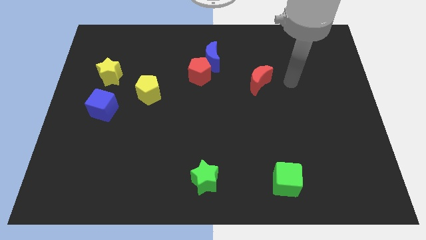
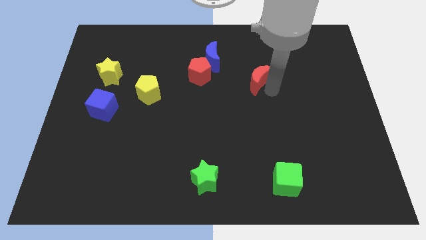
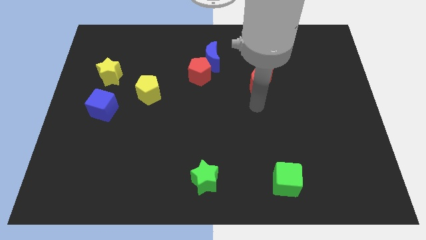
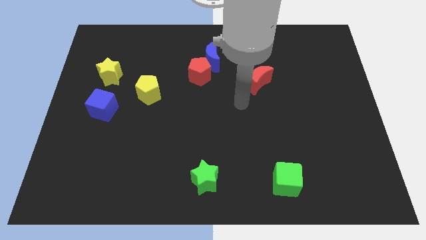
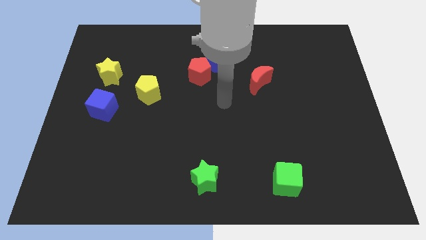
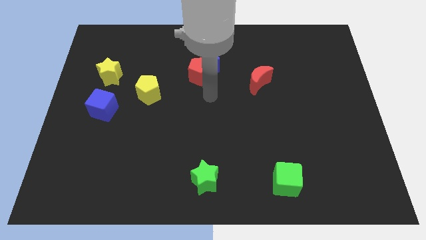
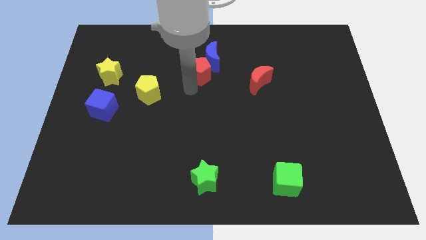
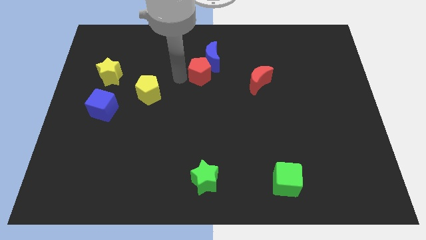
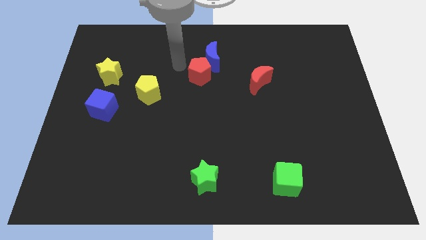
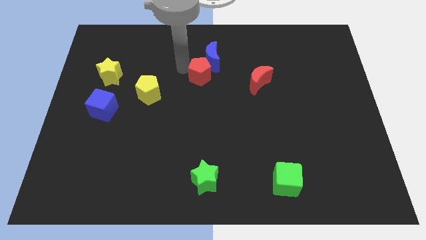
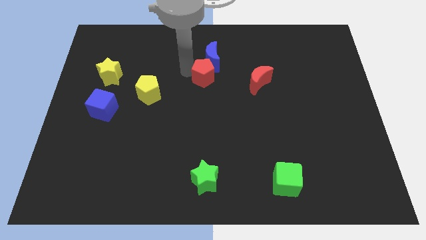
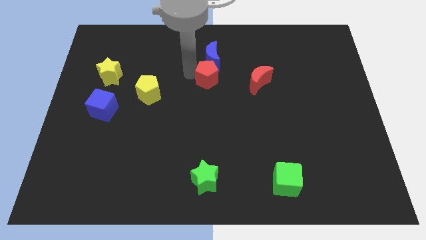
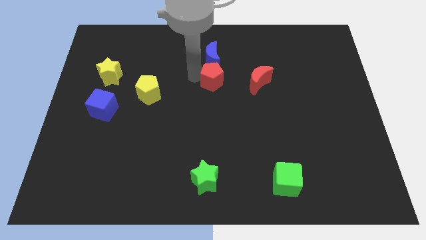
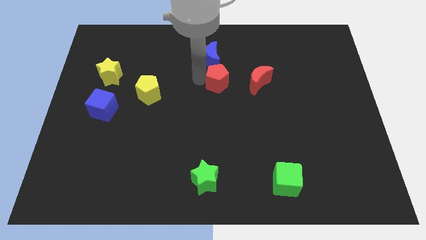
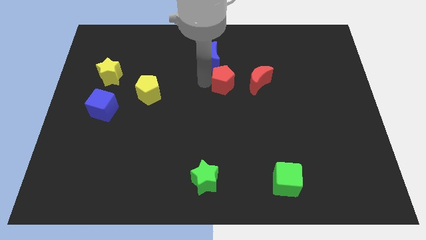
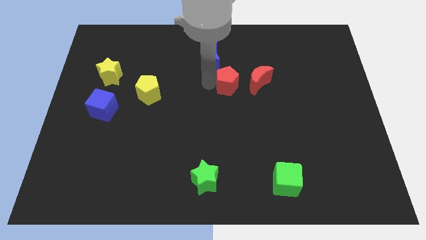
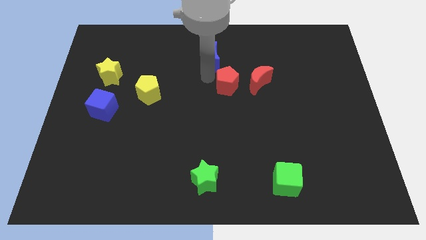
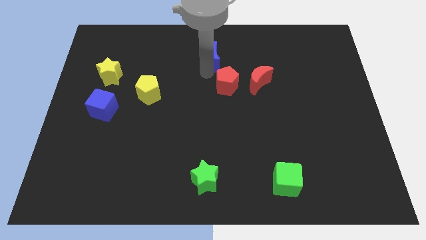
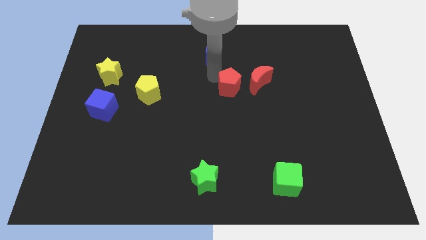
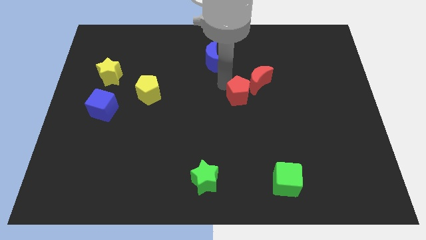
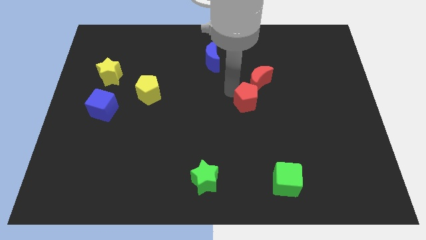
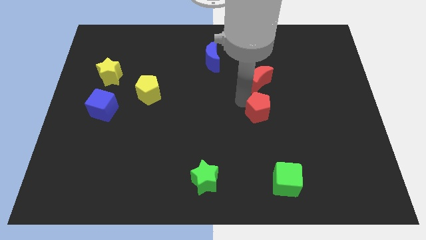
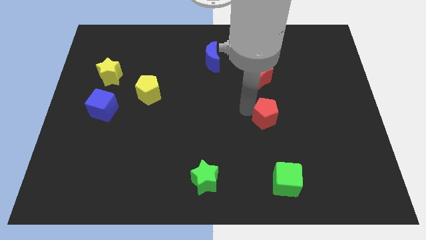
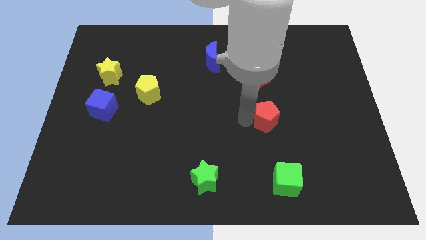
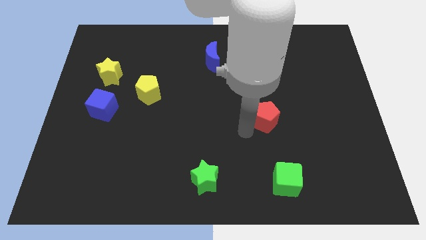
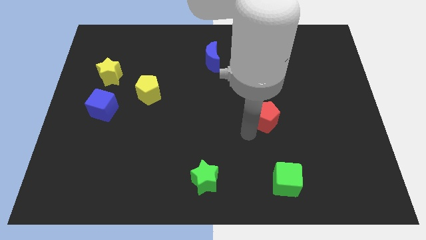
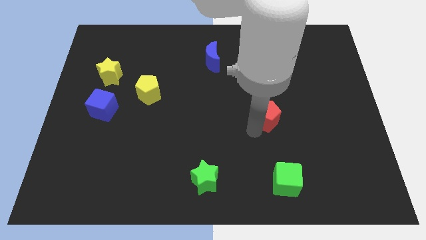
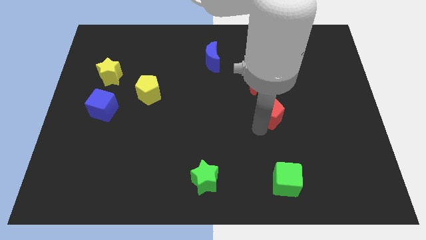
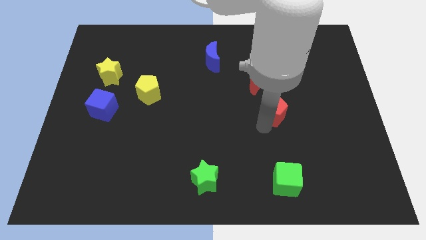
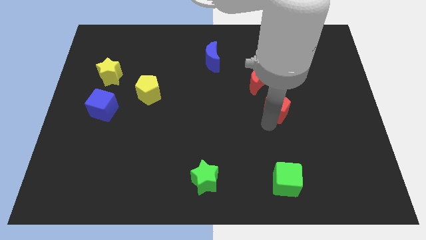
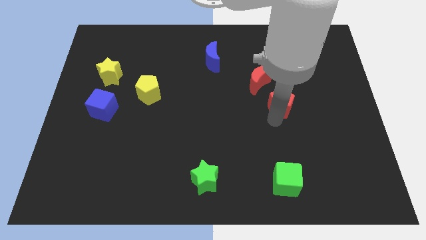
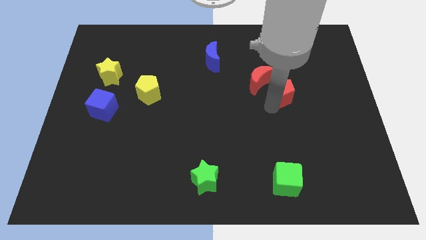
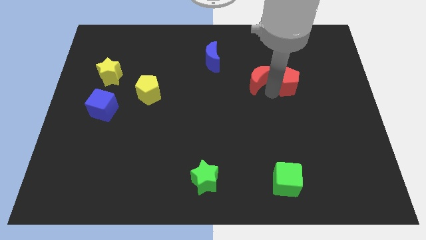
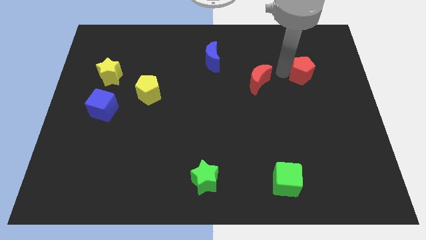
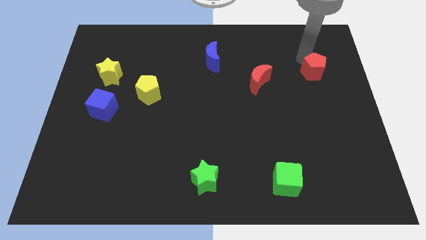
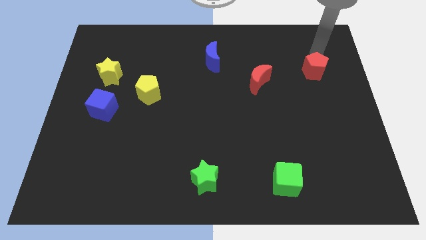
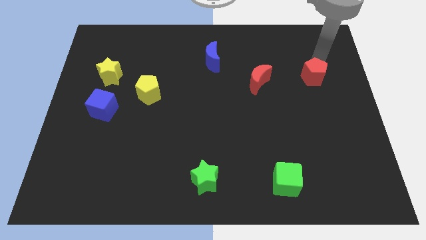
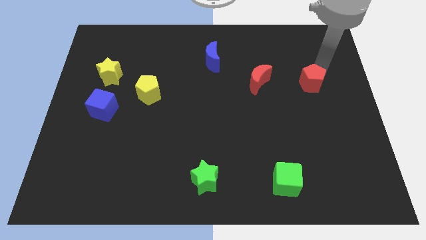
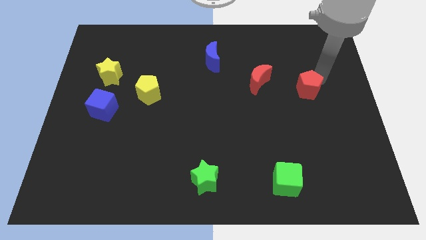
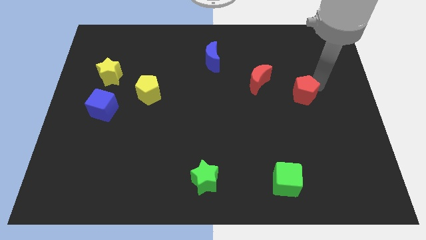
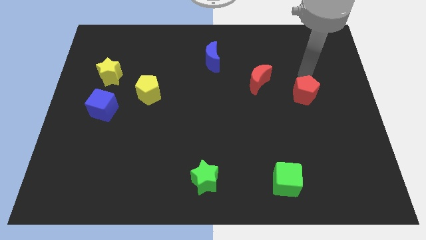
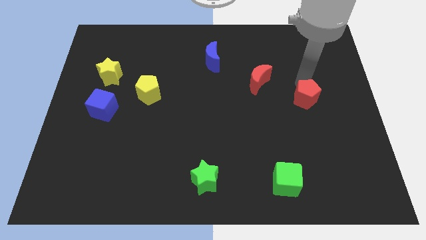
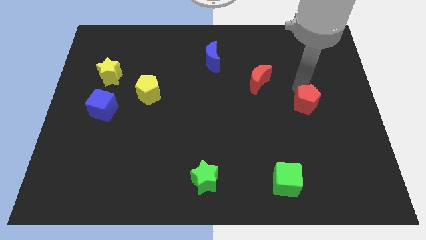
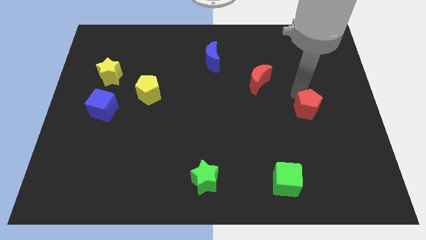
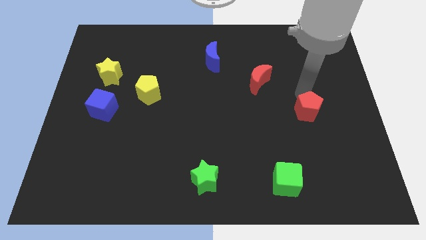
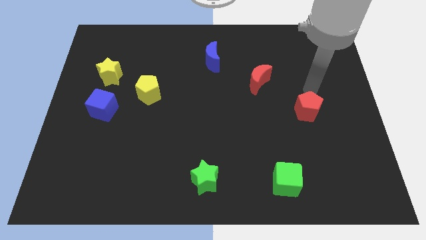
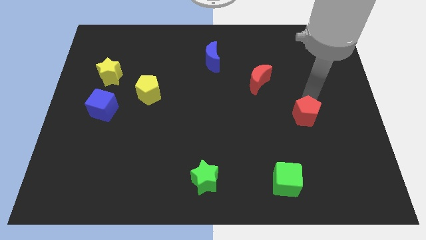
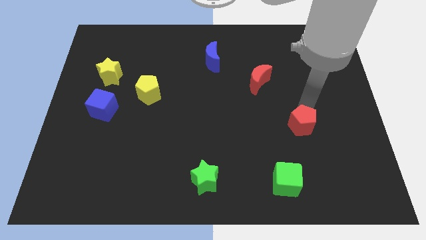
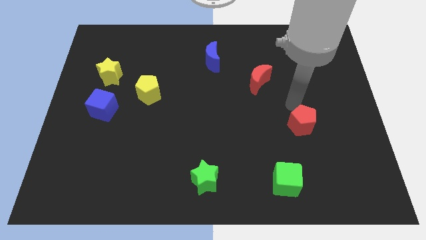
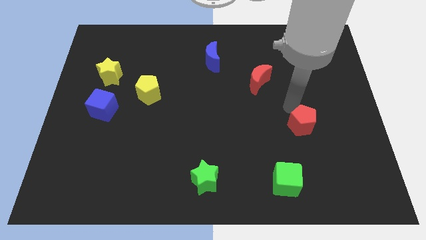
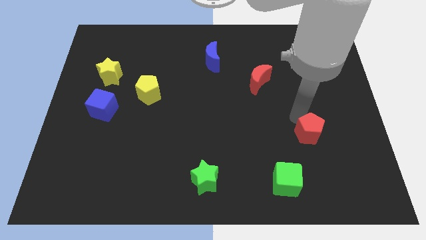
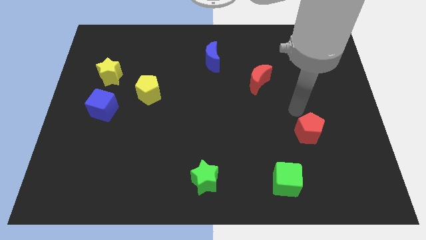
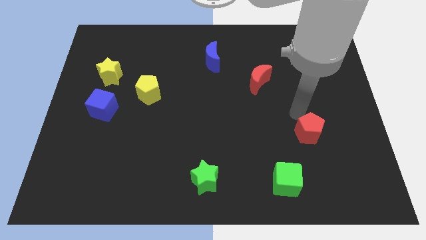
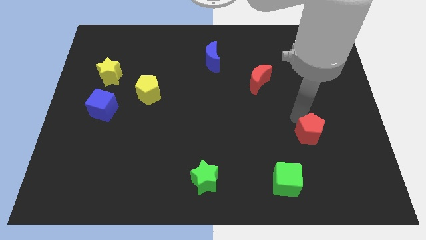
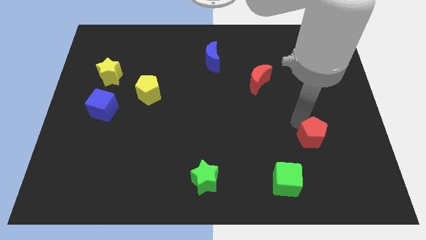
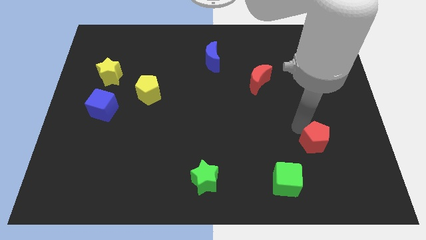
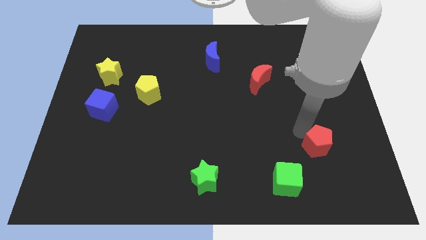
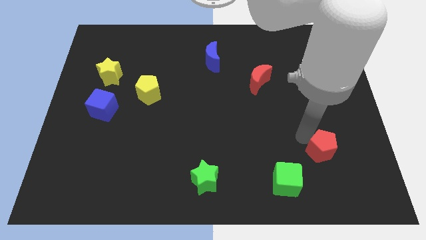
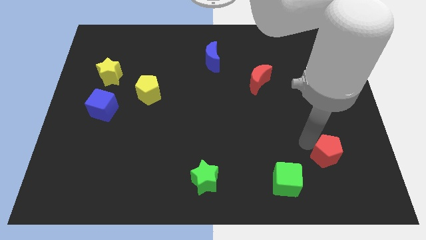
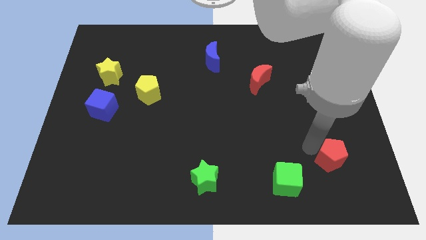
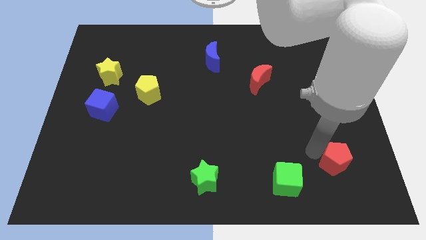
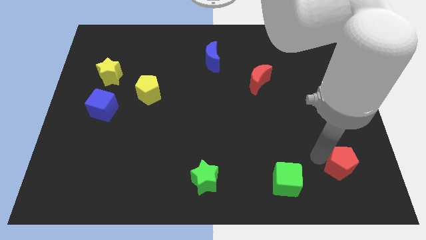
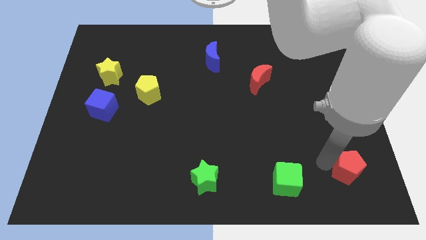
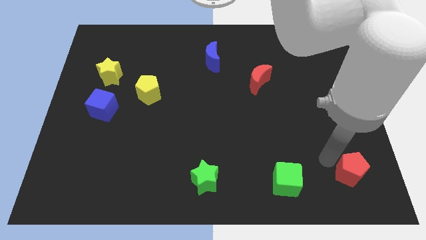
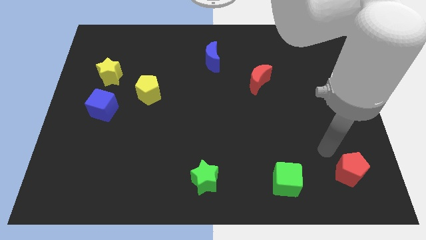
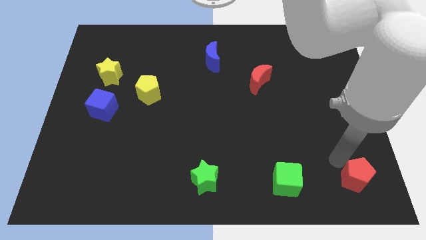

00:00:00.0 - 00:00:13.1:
slide the red pentagon to the bottom right corner

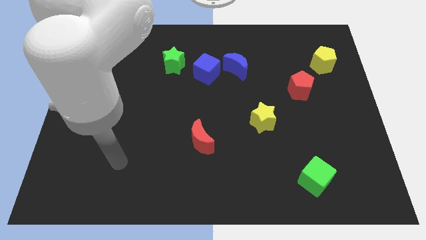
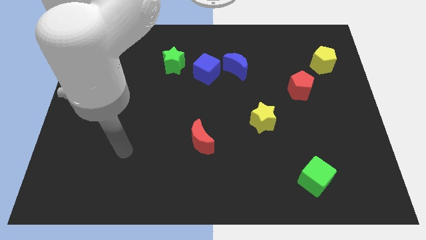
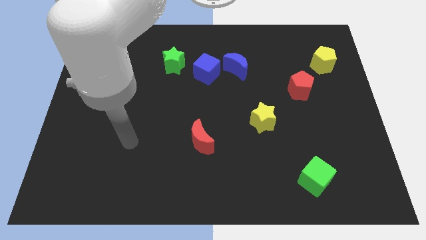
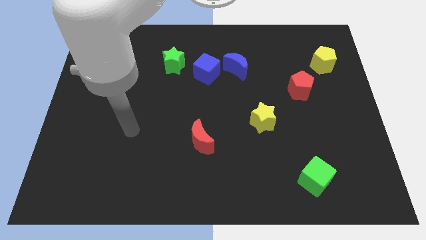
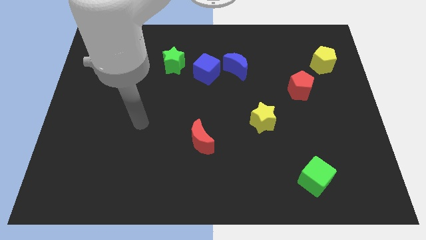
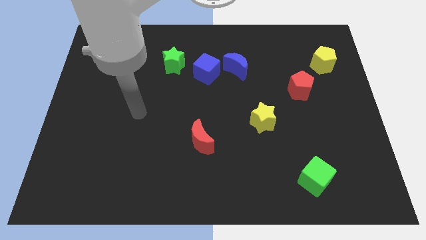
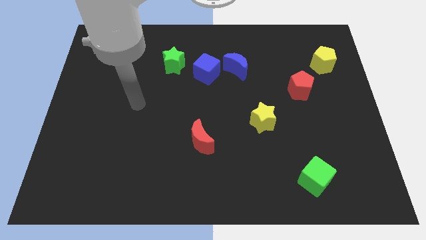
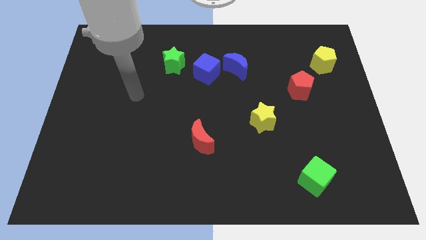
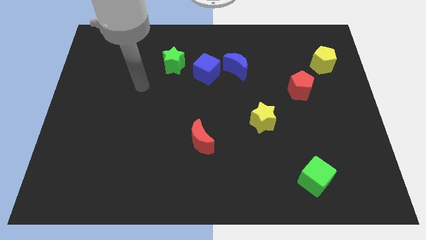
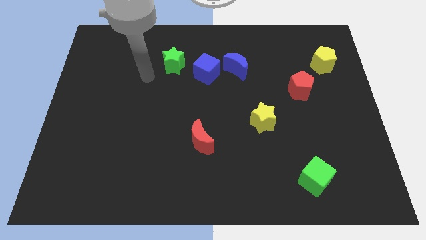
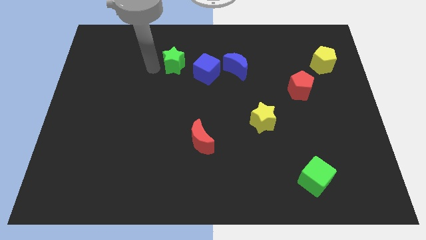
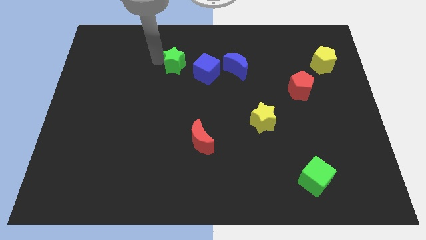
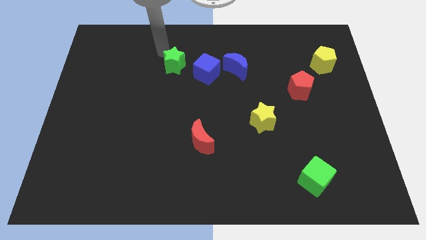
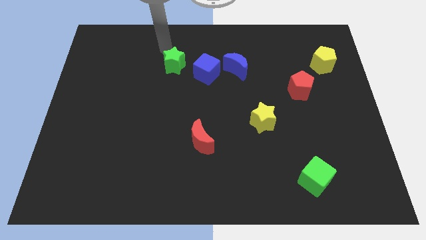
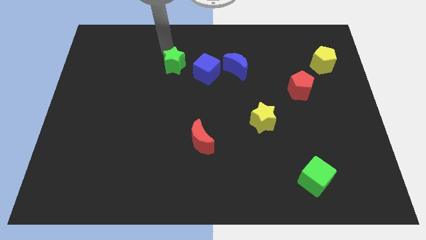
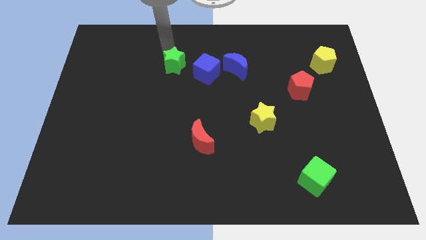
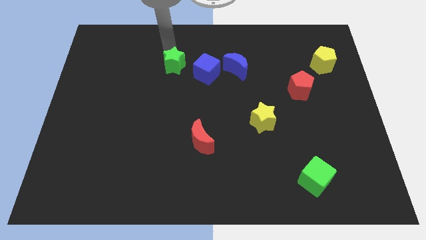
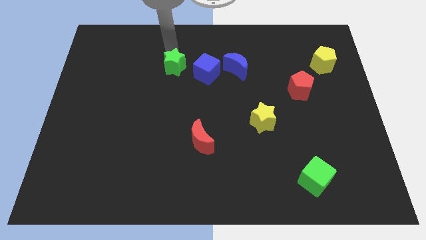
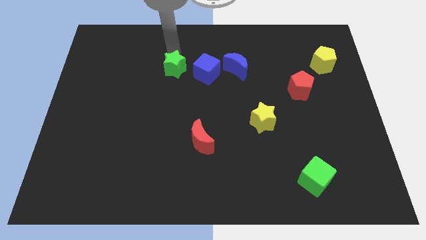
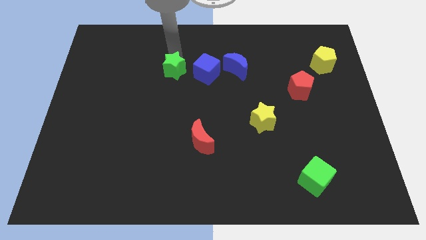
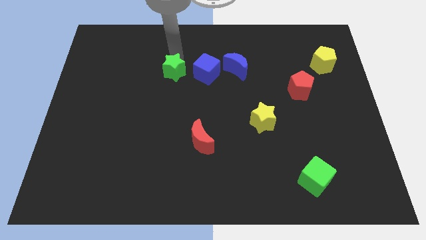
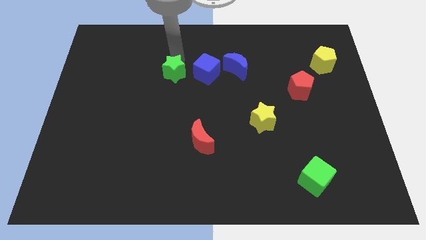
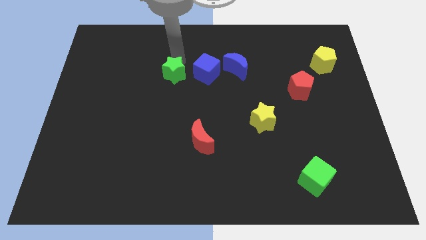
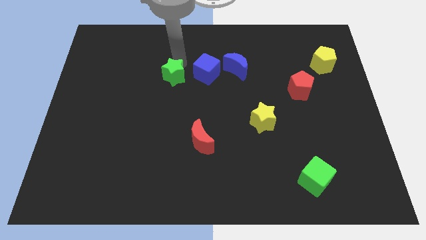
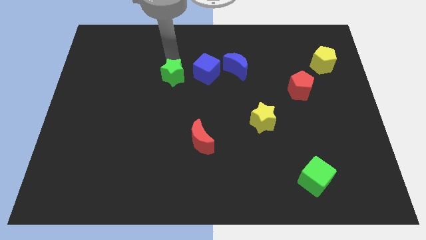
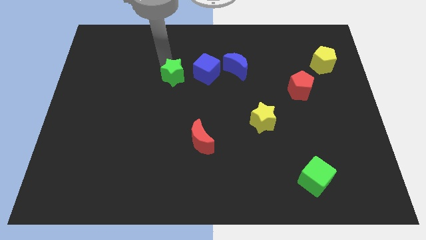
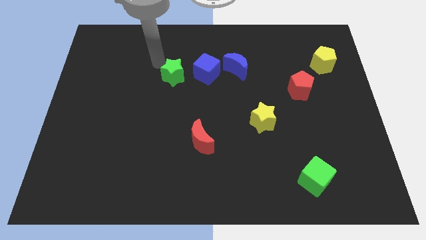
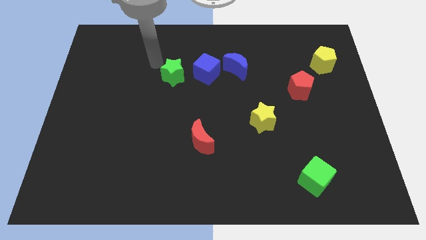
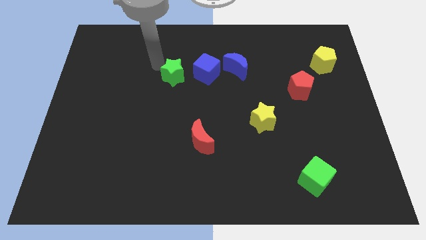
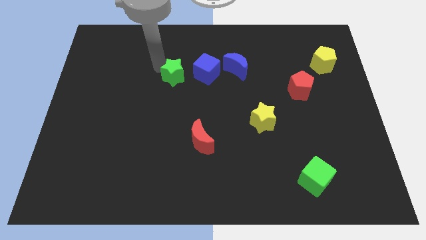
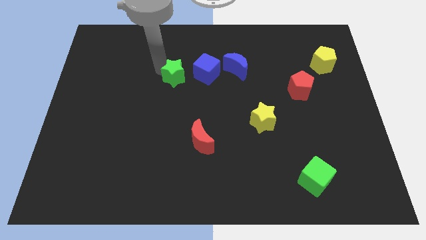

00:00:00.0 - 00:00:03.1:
push the green star to the middle of the board
